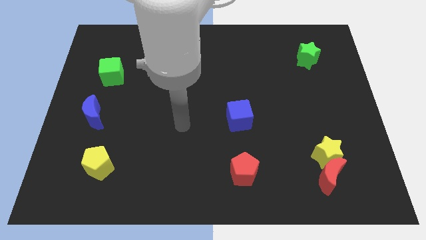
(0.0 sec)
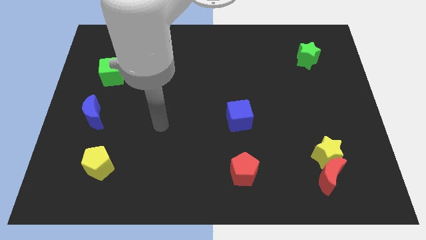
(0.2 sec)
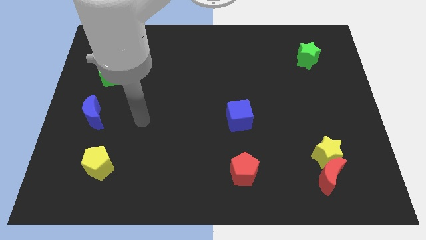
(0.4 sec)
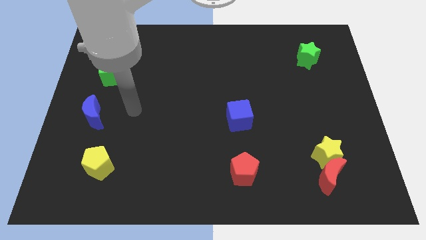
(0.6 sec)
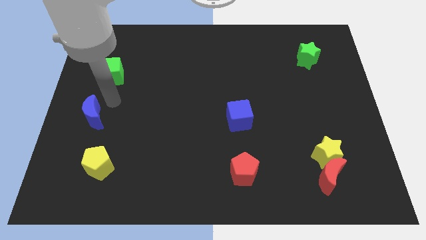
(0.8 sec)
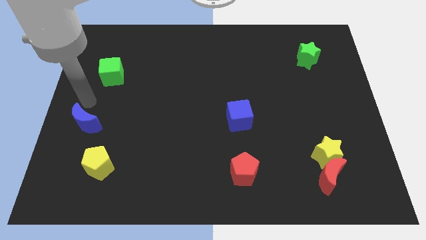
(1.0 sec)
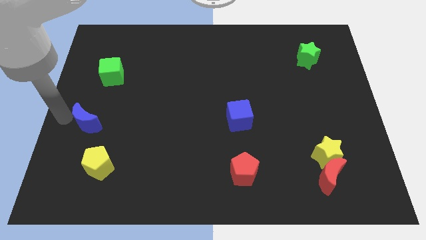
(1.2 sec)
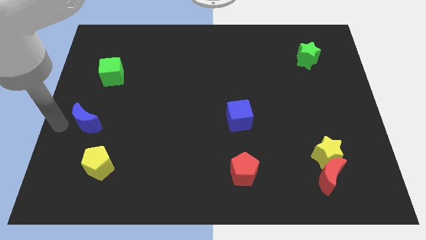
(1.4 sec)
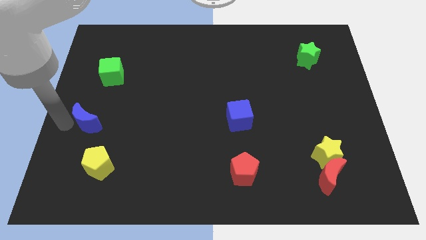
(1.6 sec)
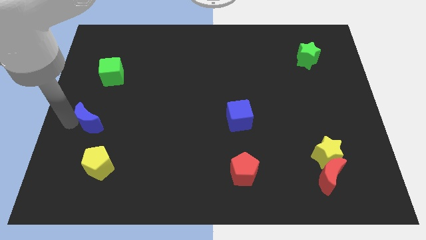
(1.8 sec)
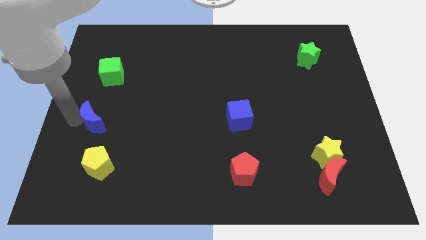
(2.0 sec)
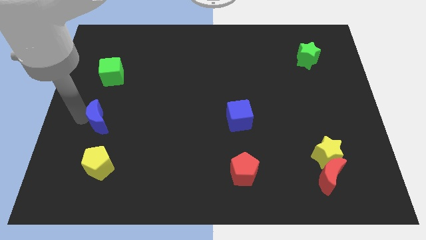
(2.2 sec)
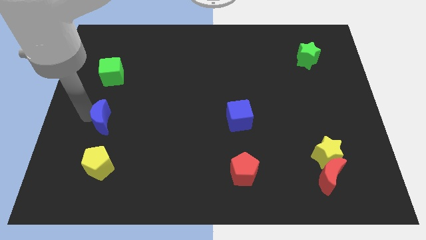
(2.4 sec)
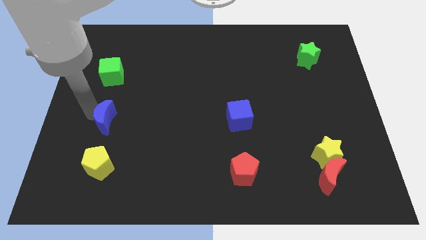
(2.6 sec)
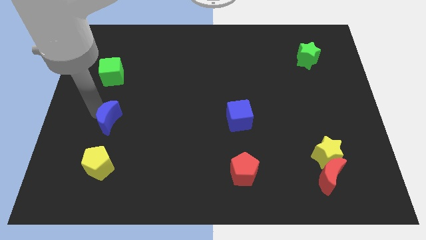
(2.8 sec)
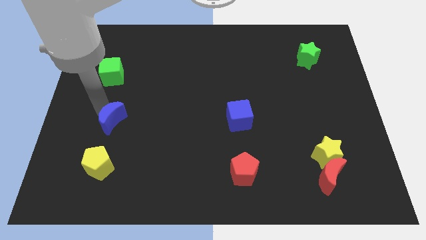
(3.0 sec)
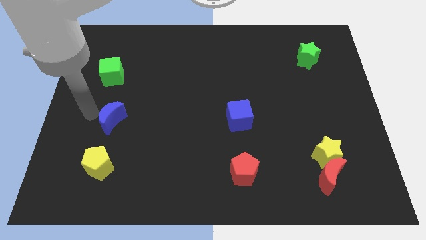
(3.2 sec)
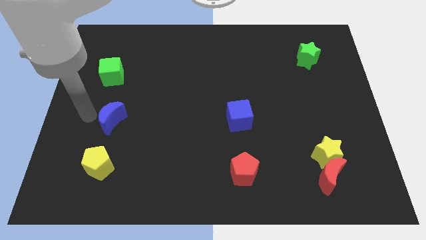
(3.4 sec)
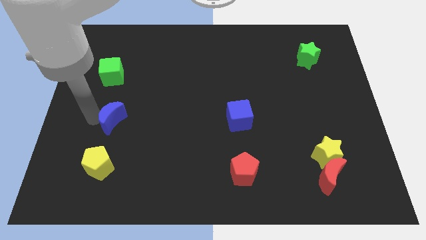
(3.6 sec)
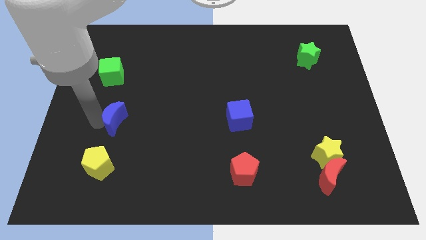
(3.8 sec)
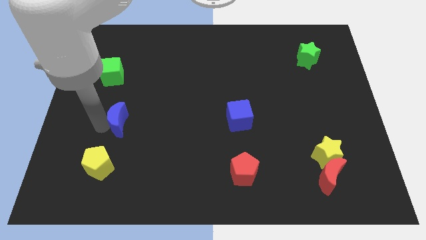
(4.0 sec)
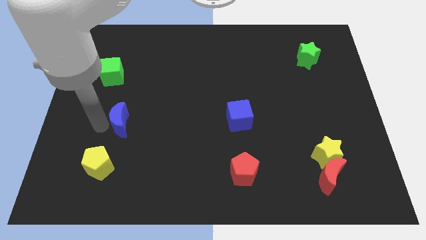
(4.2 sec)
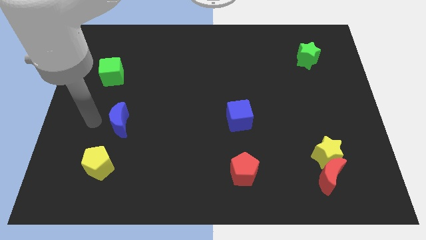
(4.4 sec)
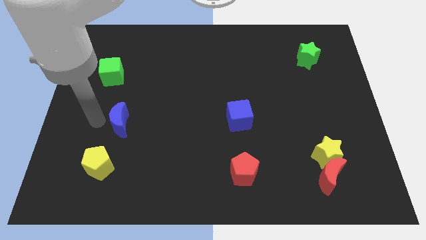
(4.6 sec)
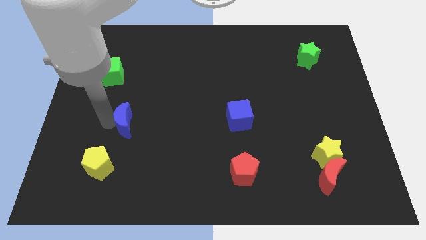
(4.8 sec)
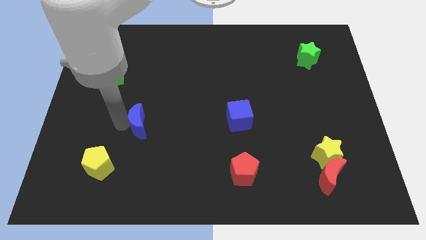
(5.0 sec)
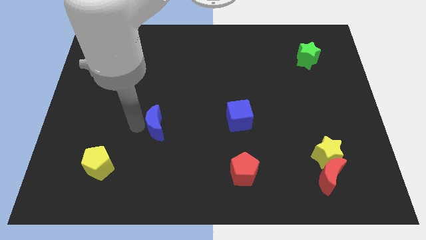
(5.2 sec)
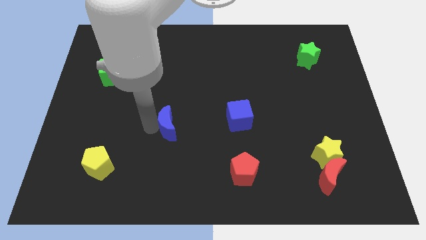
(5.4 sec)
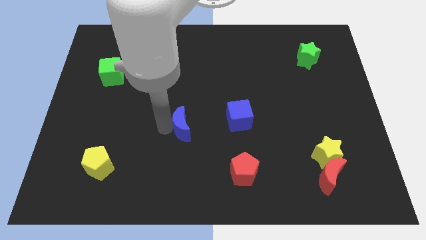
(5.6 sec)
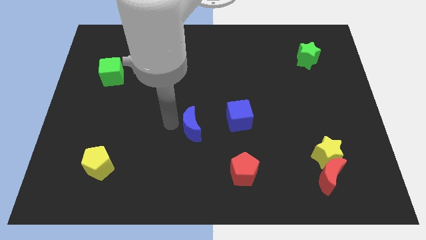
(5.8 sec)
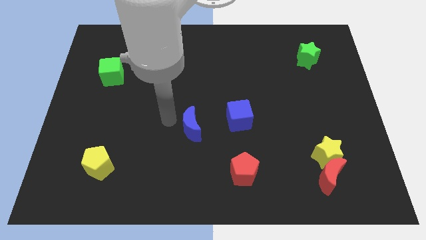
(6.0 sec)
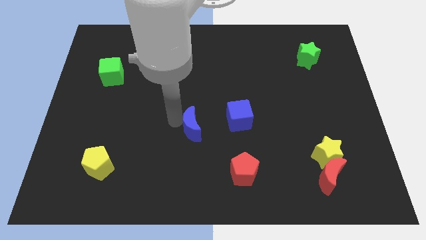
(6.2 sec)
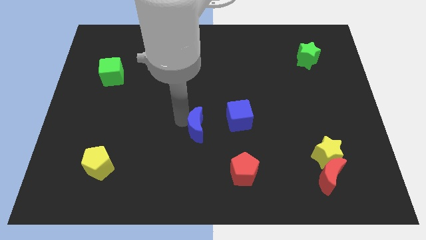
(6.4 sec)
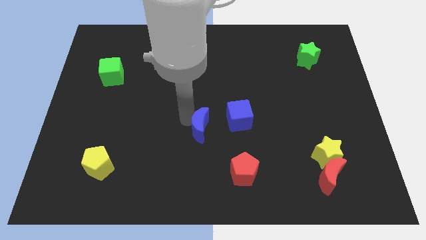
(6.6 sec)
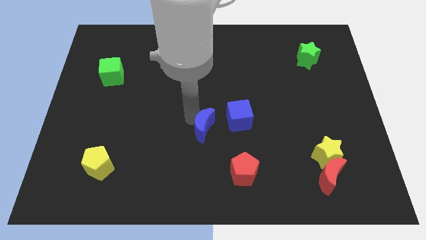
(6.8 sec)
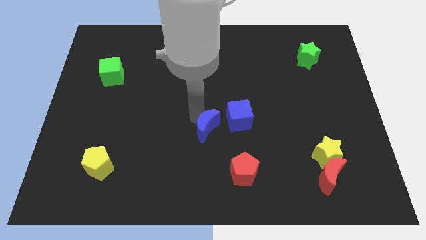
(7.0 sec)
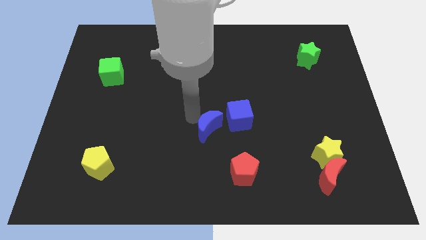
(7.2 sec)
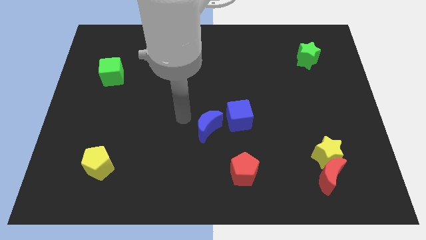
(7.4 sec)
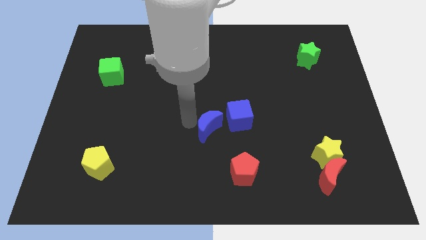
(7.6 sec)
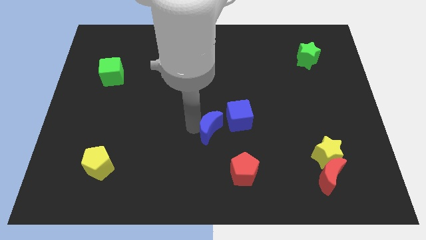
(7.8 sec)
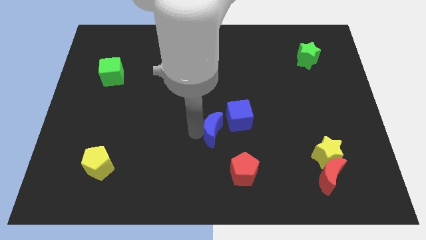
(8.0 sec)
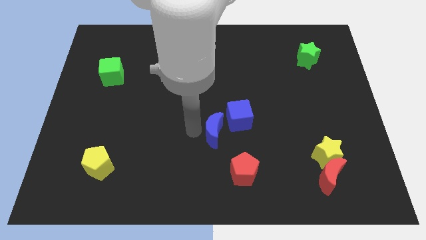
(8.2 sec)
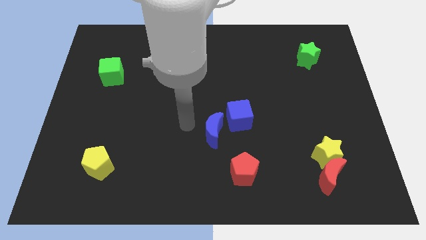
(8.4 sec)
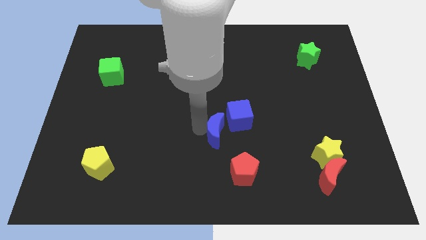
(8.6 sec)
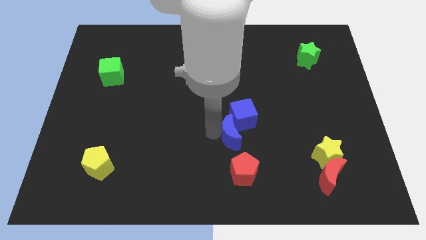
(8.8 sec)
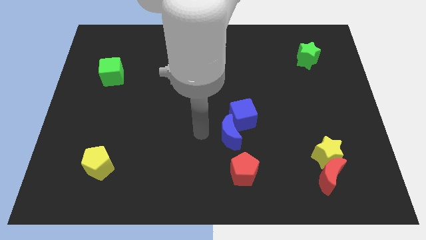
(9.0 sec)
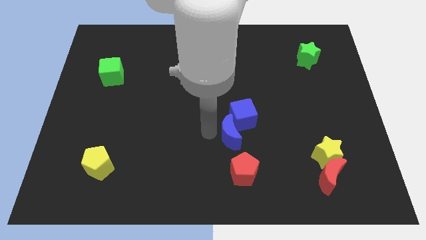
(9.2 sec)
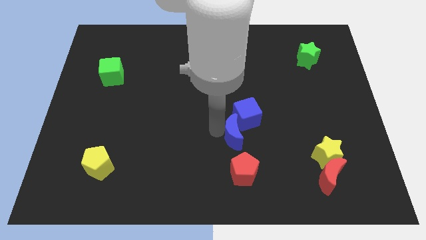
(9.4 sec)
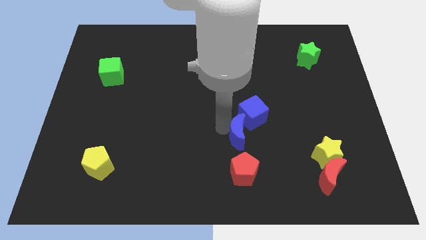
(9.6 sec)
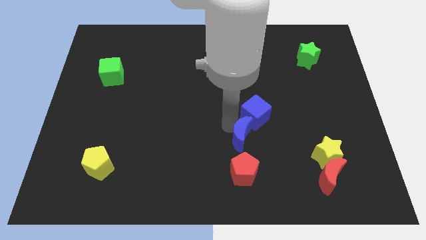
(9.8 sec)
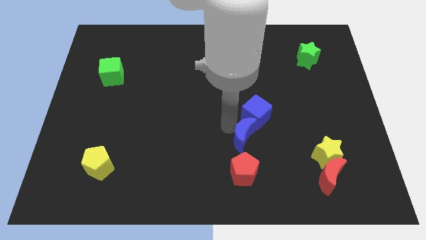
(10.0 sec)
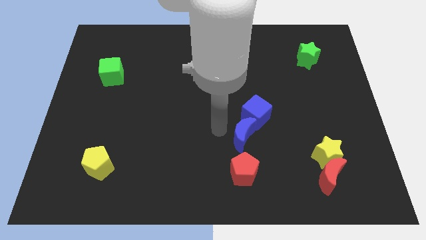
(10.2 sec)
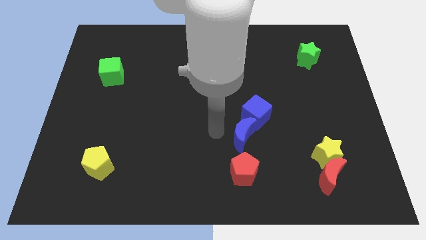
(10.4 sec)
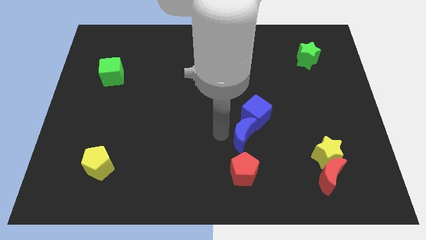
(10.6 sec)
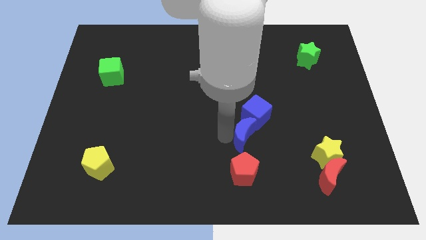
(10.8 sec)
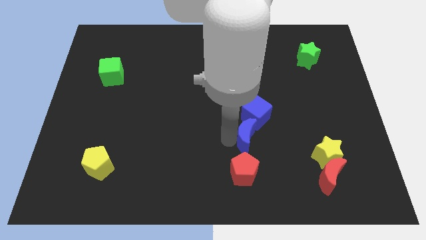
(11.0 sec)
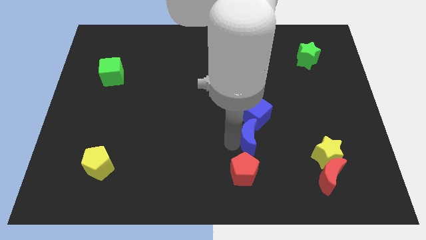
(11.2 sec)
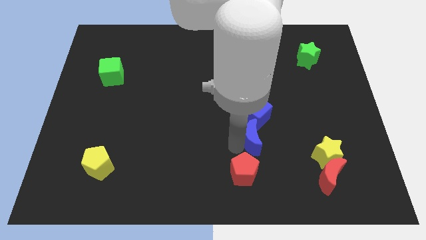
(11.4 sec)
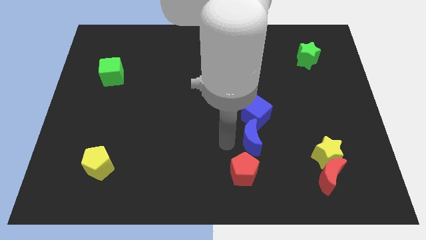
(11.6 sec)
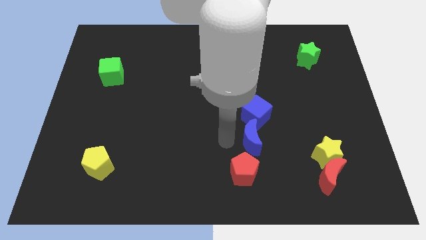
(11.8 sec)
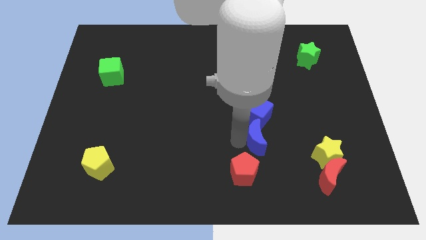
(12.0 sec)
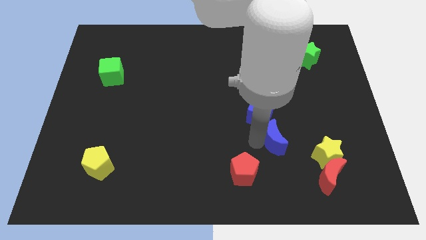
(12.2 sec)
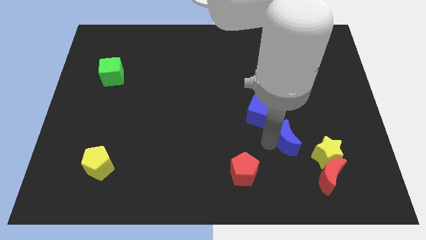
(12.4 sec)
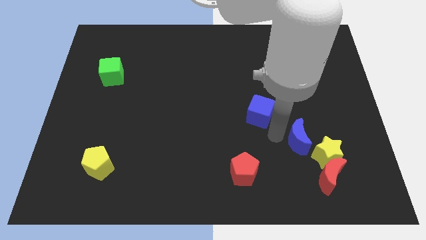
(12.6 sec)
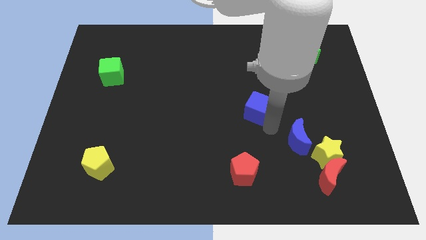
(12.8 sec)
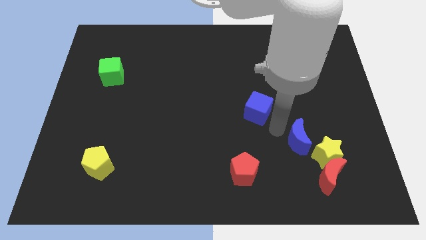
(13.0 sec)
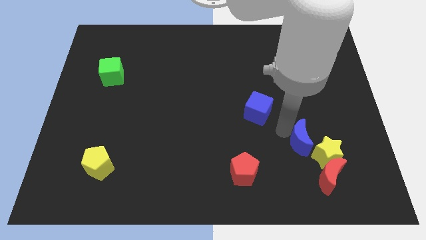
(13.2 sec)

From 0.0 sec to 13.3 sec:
put the blue moon towards the yellow star

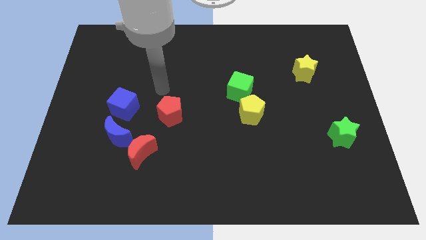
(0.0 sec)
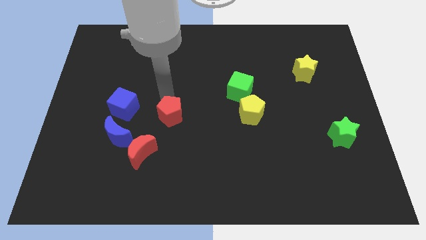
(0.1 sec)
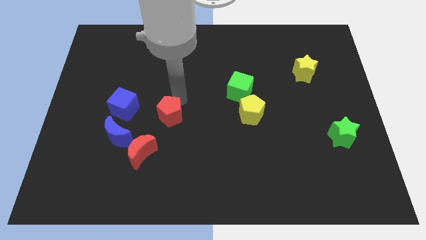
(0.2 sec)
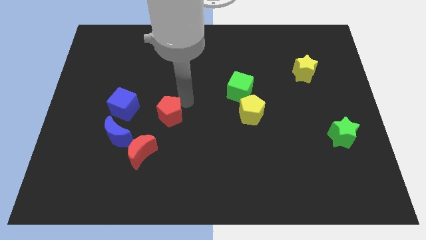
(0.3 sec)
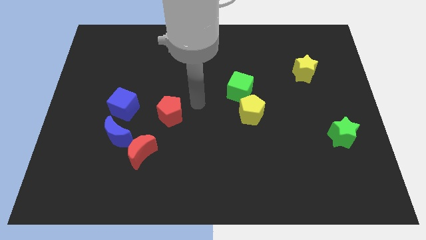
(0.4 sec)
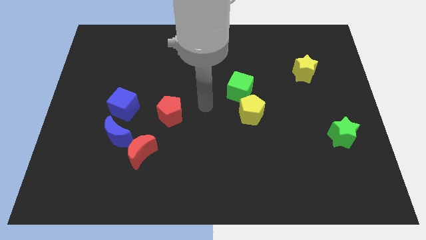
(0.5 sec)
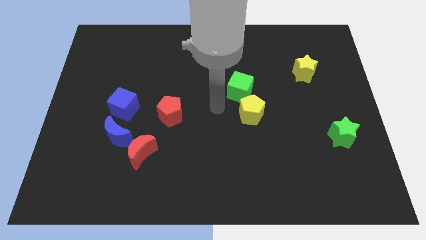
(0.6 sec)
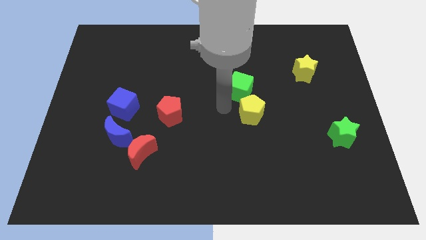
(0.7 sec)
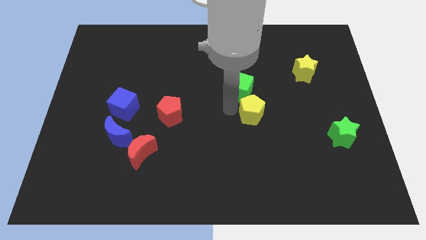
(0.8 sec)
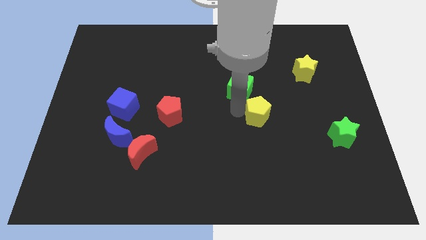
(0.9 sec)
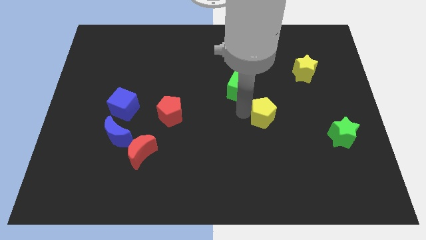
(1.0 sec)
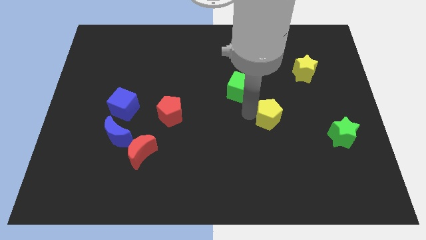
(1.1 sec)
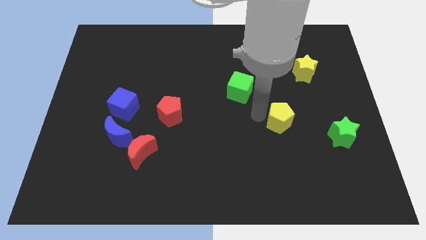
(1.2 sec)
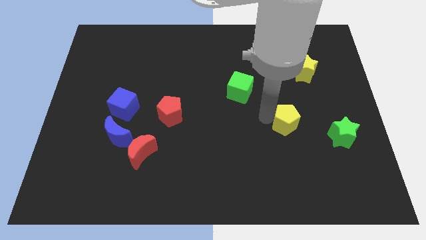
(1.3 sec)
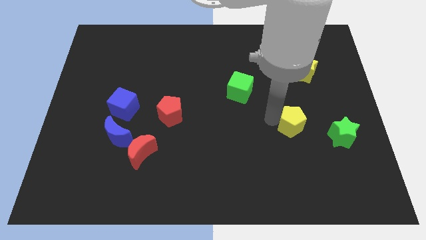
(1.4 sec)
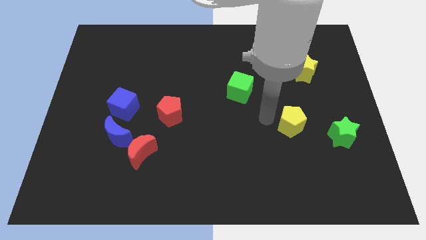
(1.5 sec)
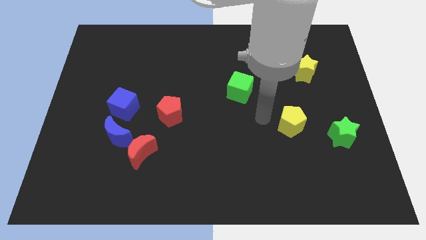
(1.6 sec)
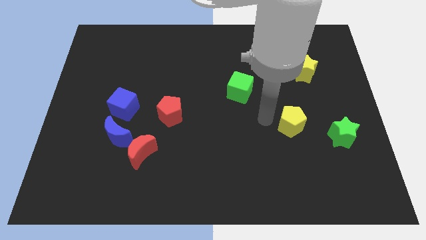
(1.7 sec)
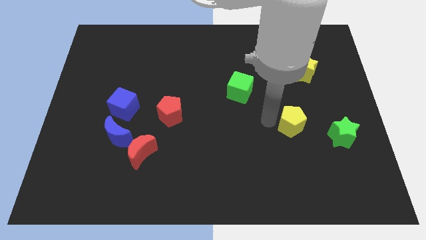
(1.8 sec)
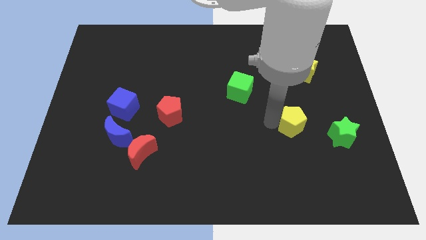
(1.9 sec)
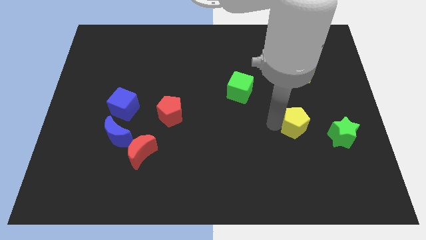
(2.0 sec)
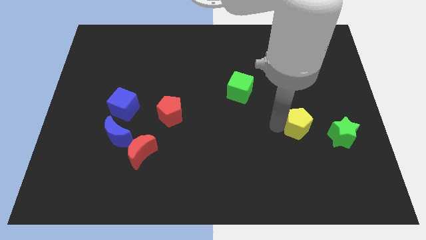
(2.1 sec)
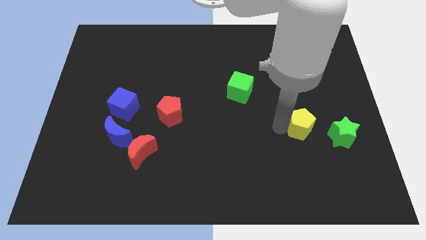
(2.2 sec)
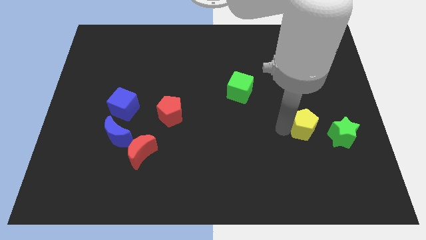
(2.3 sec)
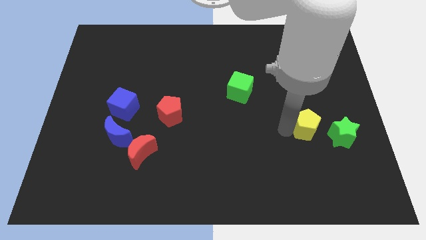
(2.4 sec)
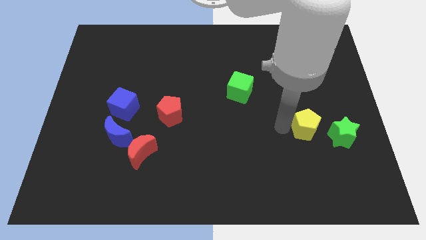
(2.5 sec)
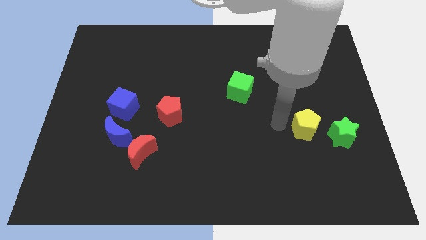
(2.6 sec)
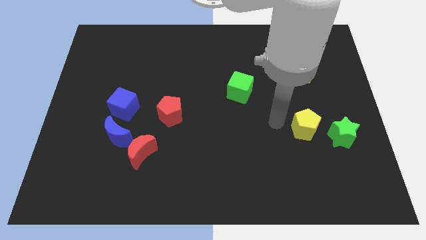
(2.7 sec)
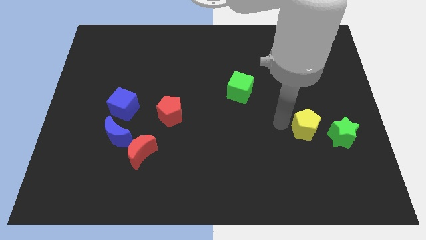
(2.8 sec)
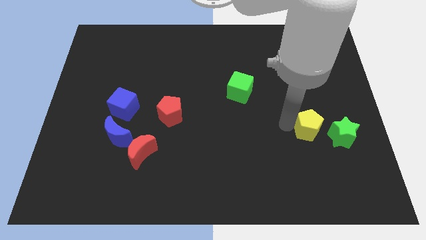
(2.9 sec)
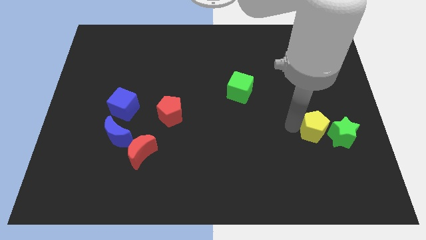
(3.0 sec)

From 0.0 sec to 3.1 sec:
slide the yellow pentagon towards the green star
